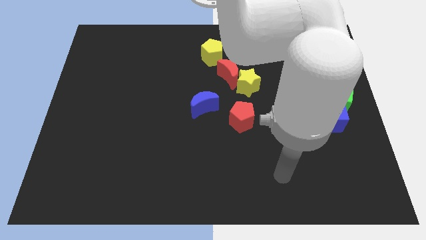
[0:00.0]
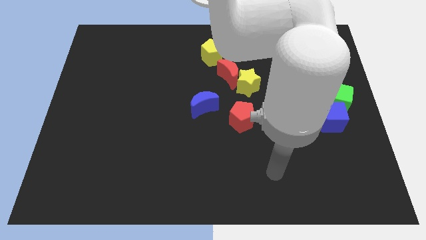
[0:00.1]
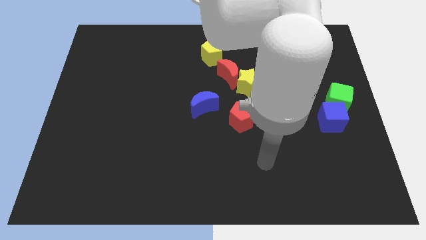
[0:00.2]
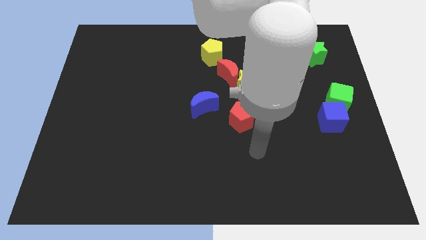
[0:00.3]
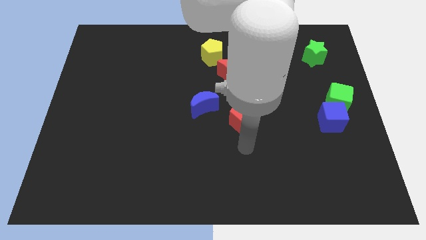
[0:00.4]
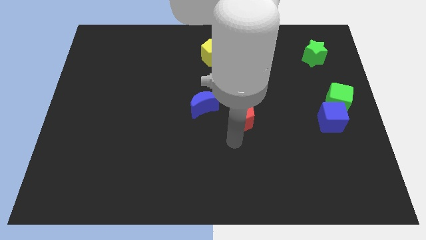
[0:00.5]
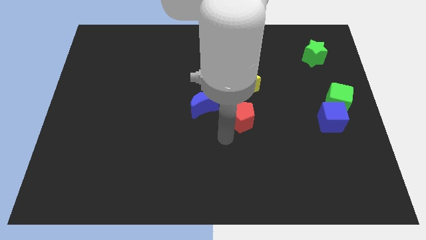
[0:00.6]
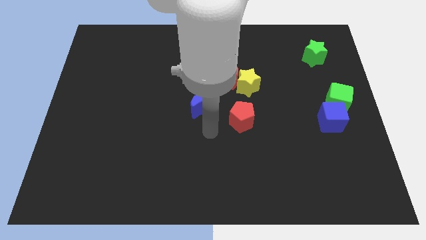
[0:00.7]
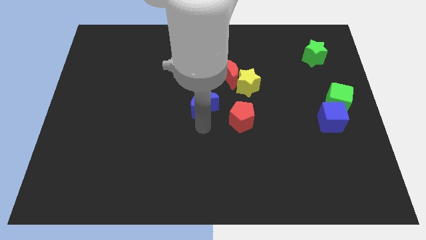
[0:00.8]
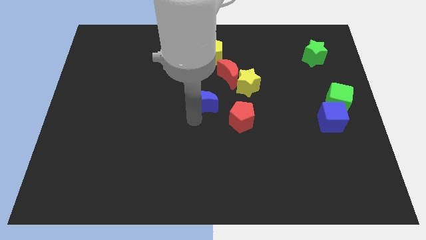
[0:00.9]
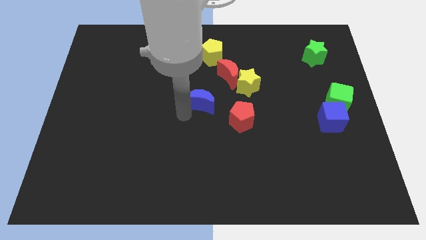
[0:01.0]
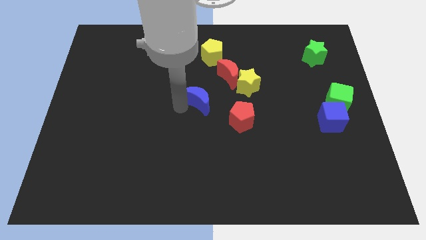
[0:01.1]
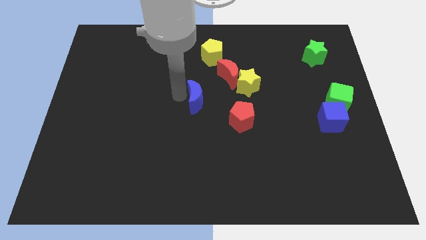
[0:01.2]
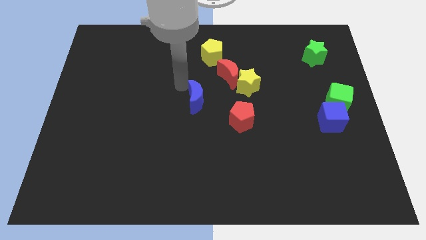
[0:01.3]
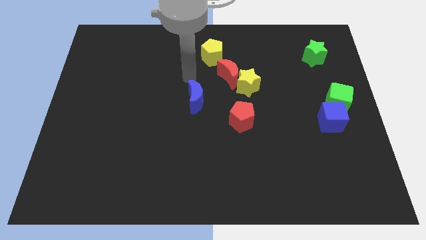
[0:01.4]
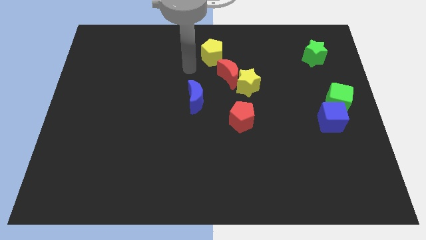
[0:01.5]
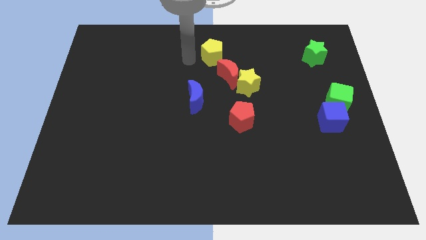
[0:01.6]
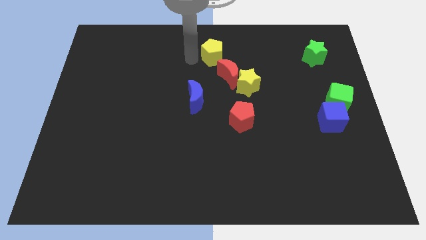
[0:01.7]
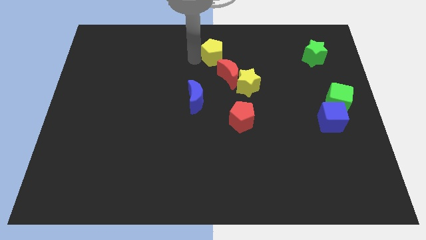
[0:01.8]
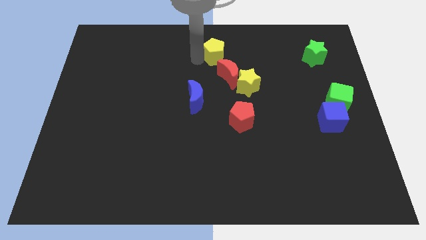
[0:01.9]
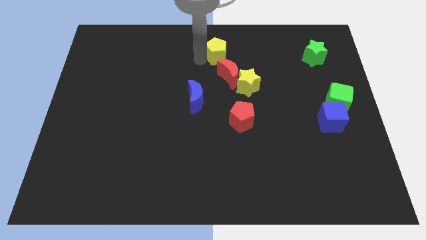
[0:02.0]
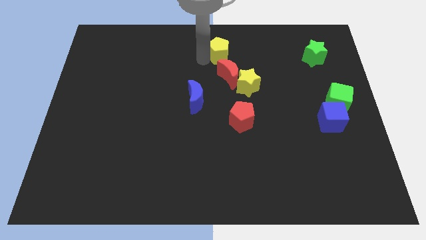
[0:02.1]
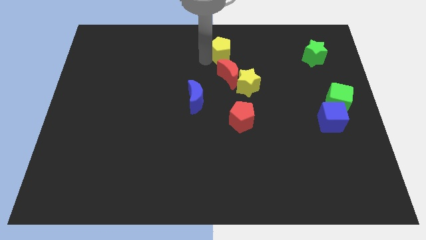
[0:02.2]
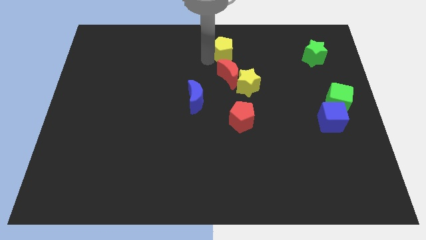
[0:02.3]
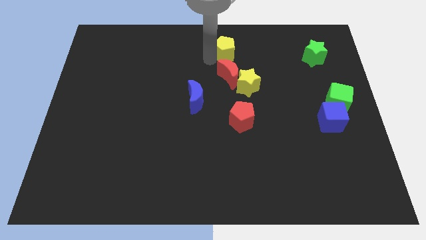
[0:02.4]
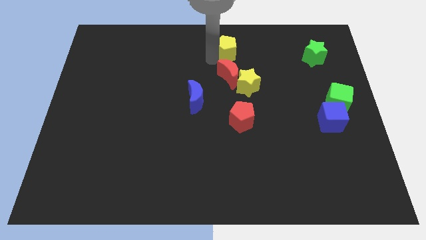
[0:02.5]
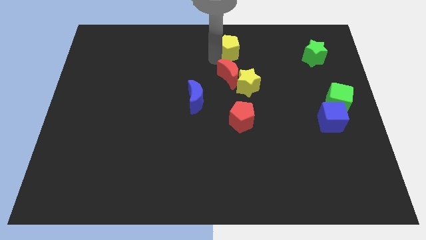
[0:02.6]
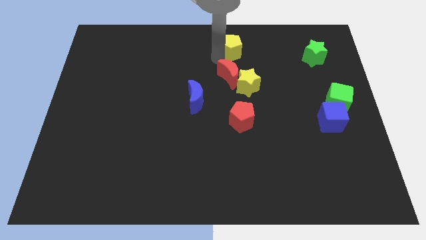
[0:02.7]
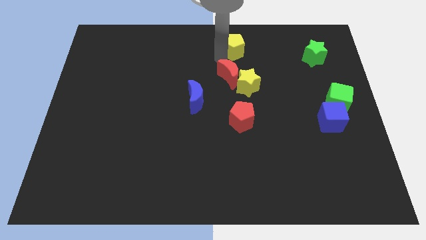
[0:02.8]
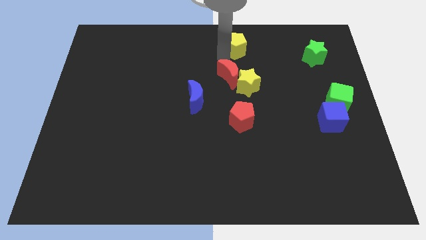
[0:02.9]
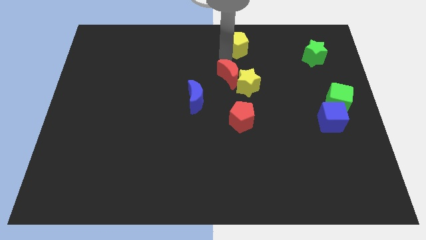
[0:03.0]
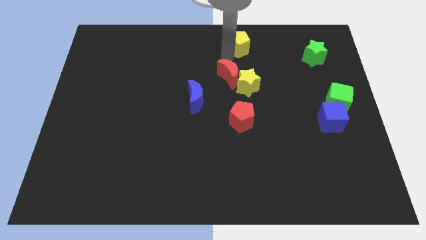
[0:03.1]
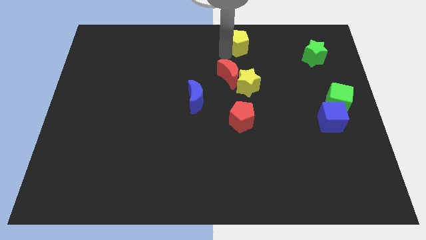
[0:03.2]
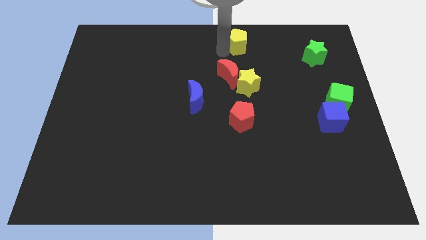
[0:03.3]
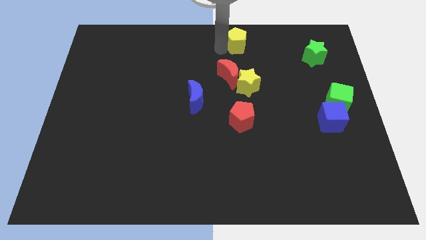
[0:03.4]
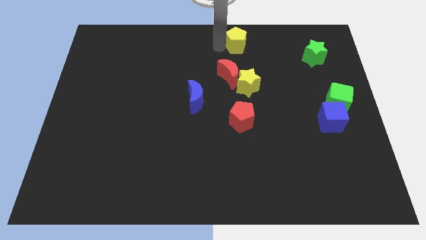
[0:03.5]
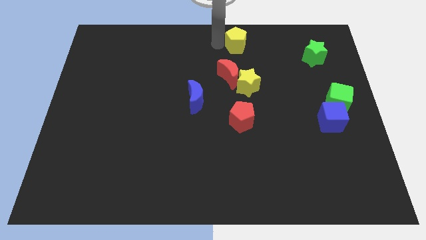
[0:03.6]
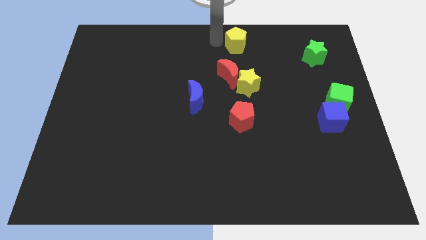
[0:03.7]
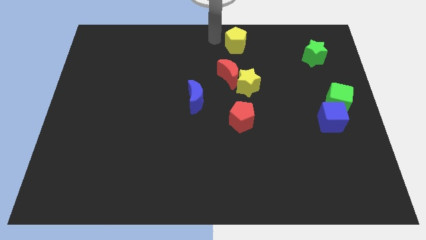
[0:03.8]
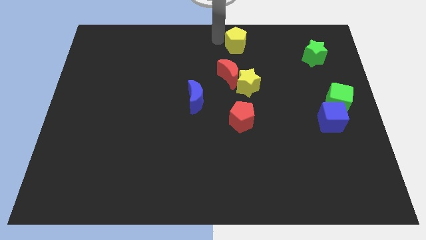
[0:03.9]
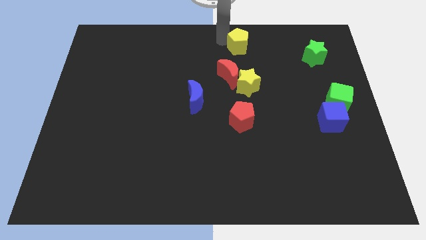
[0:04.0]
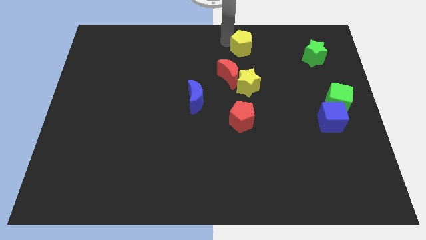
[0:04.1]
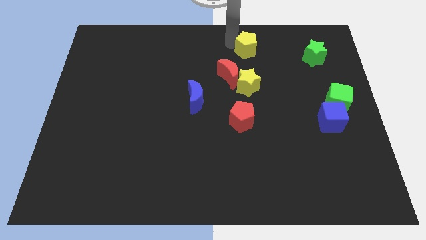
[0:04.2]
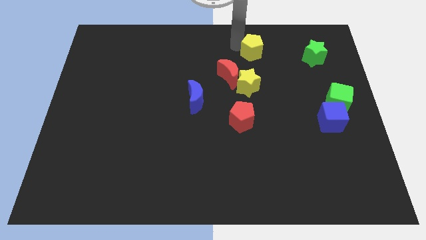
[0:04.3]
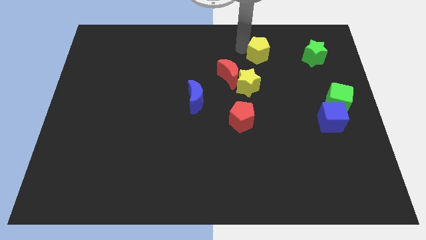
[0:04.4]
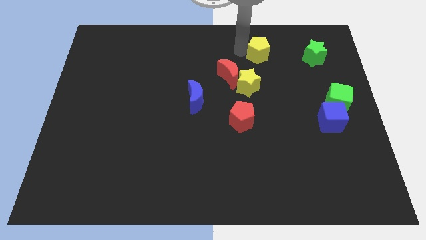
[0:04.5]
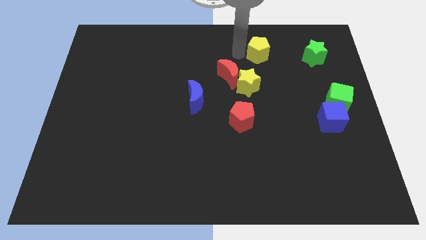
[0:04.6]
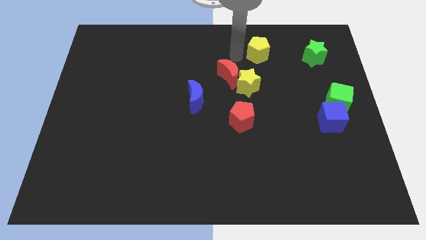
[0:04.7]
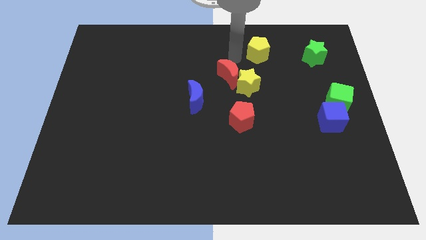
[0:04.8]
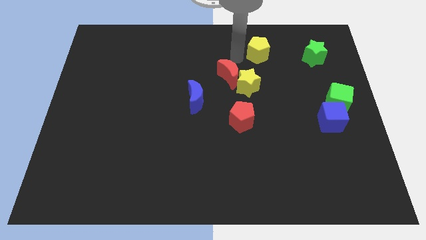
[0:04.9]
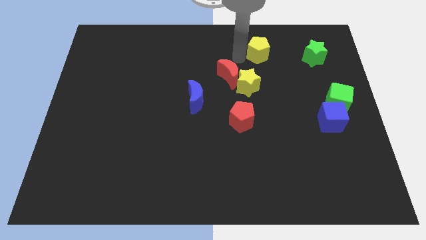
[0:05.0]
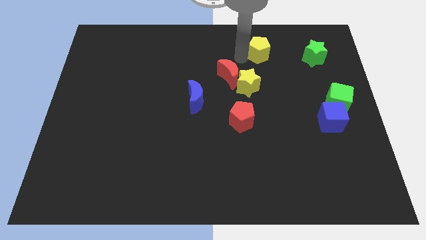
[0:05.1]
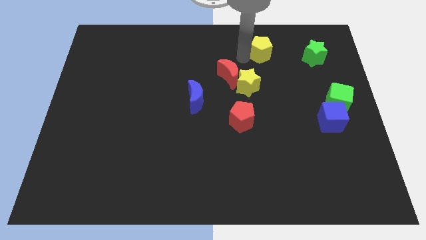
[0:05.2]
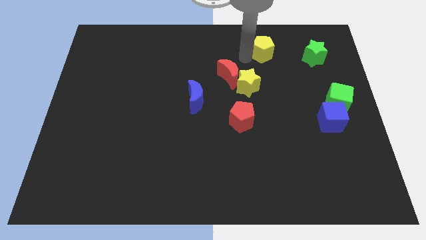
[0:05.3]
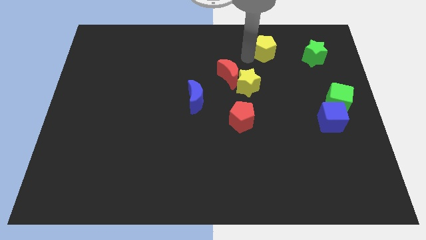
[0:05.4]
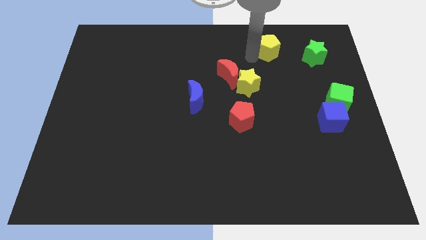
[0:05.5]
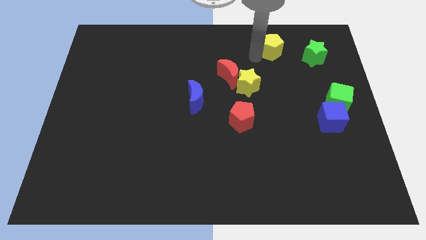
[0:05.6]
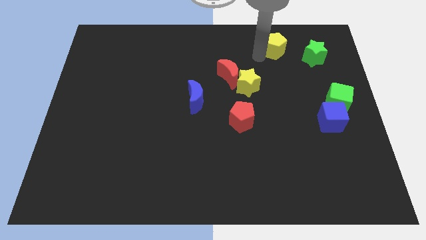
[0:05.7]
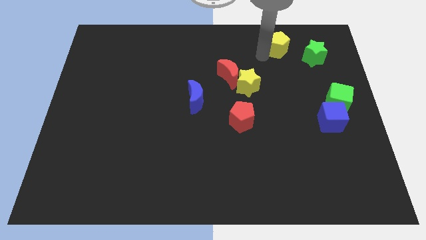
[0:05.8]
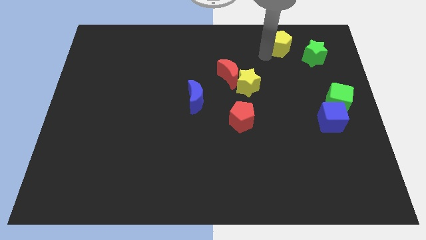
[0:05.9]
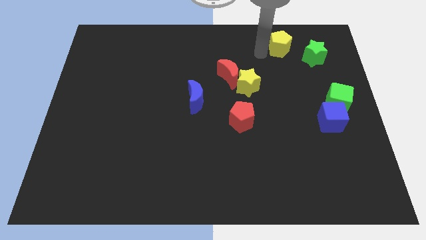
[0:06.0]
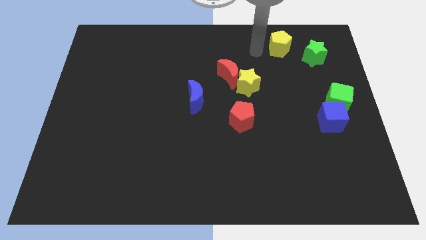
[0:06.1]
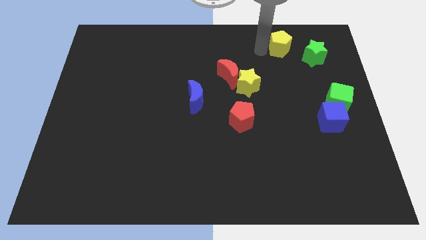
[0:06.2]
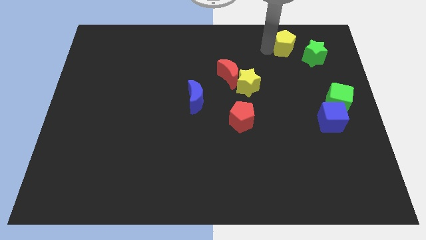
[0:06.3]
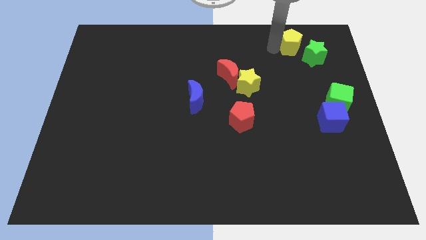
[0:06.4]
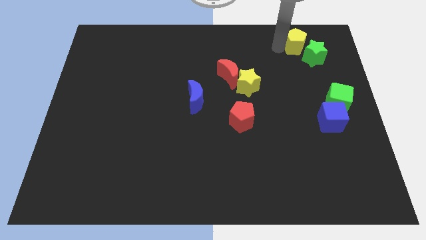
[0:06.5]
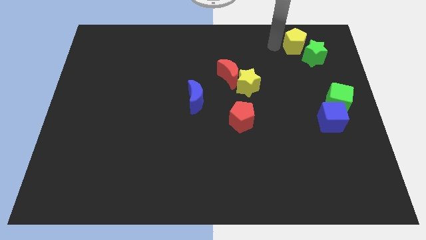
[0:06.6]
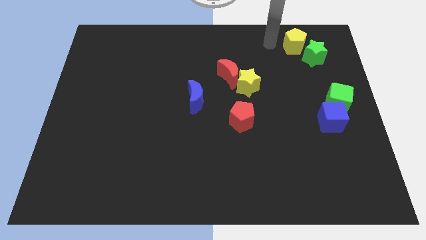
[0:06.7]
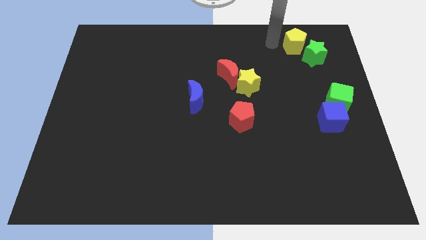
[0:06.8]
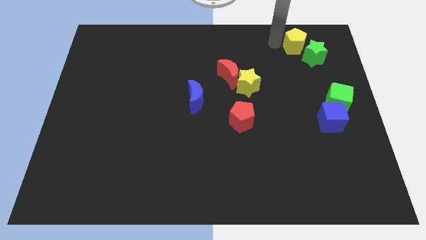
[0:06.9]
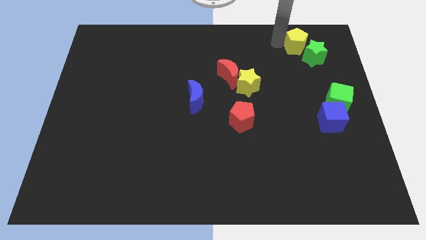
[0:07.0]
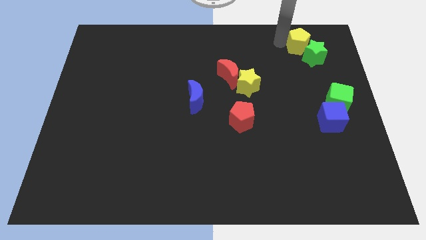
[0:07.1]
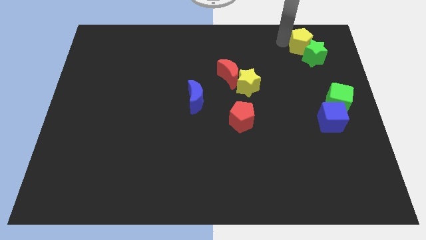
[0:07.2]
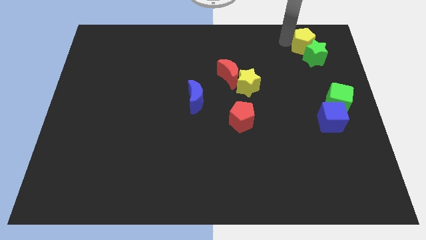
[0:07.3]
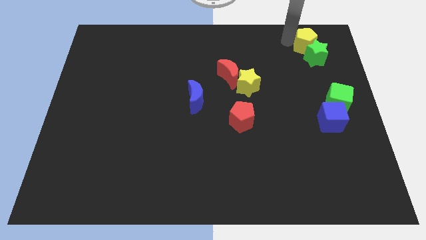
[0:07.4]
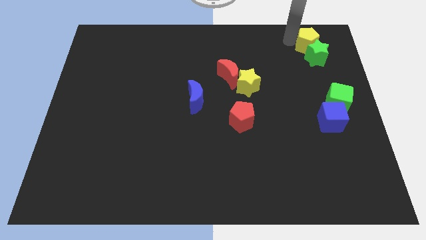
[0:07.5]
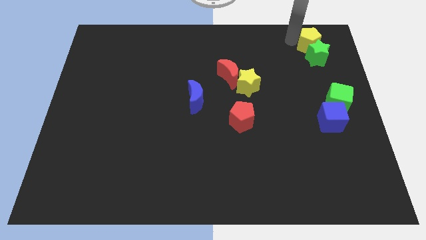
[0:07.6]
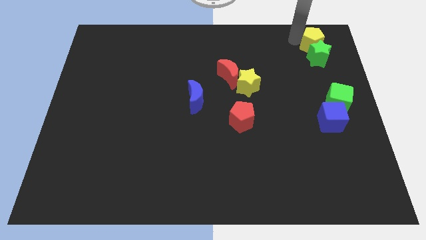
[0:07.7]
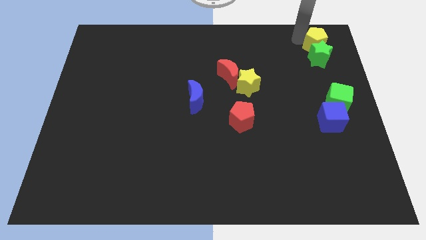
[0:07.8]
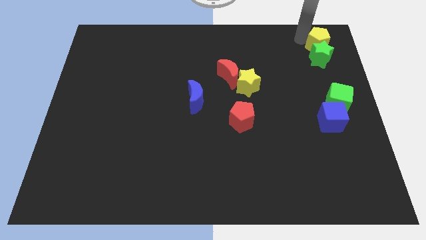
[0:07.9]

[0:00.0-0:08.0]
slide the yellow pentagon to the top right of the board
